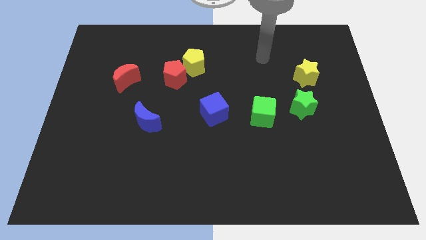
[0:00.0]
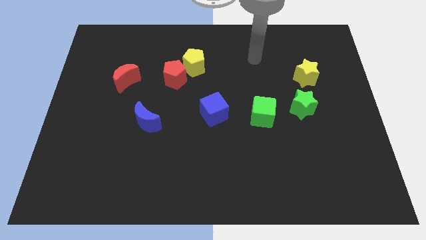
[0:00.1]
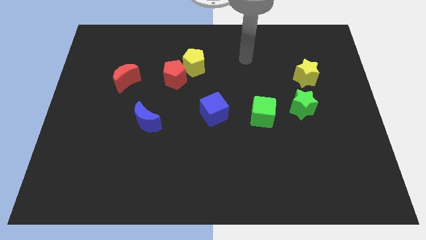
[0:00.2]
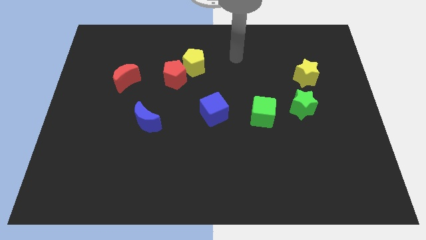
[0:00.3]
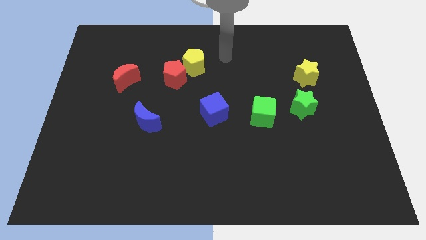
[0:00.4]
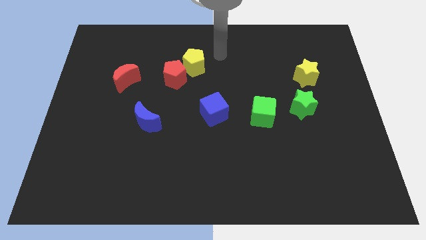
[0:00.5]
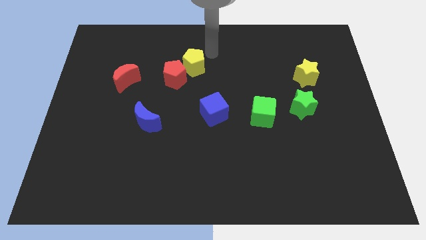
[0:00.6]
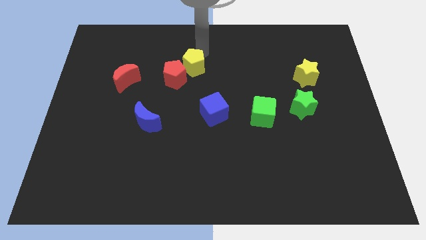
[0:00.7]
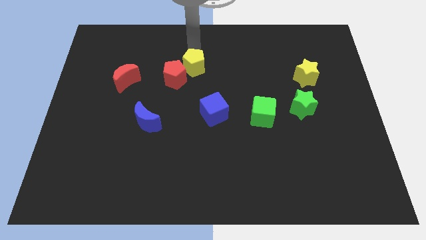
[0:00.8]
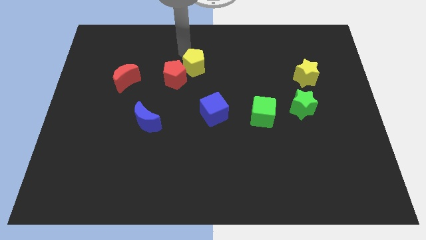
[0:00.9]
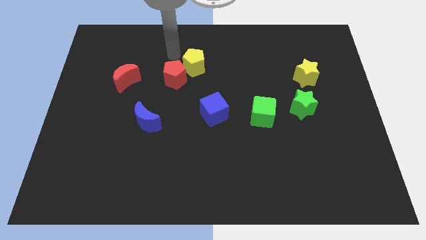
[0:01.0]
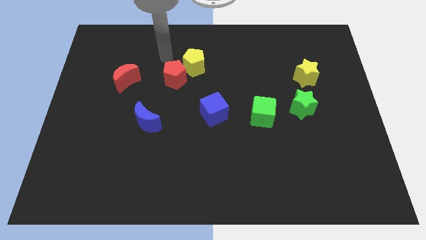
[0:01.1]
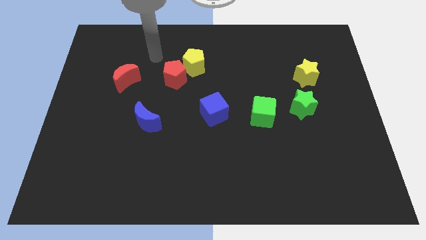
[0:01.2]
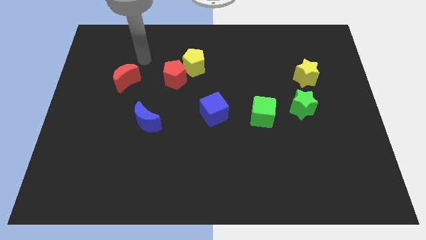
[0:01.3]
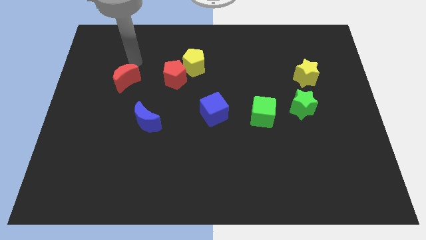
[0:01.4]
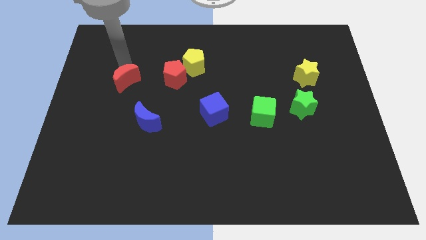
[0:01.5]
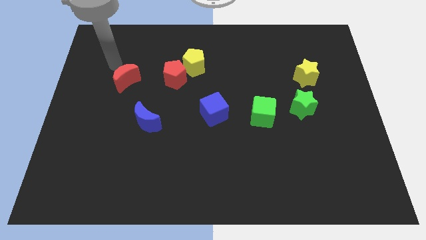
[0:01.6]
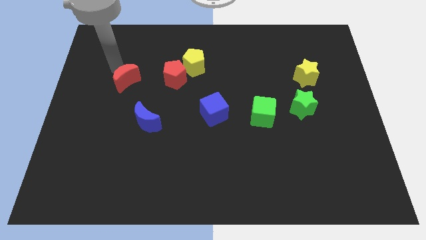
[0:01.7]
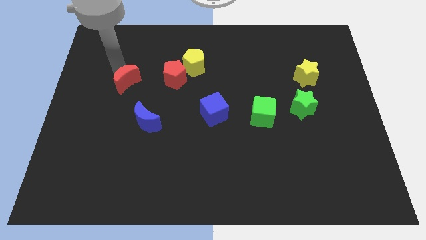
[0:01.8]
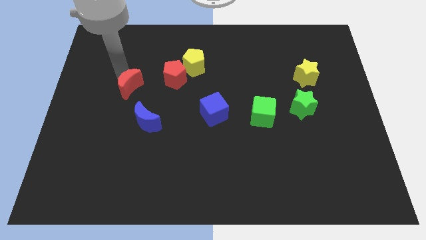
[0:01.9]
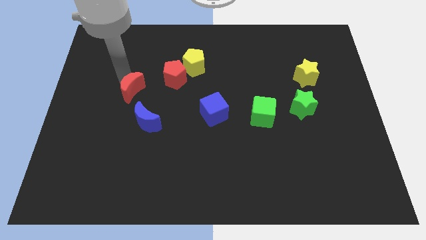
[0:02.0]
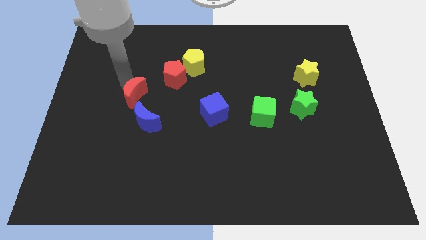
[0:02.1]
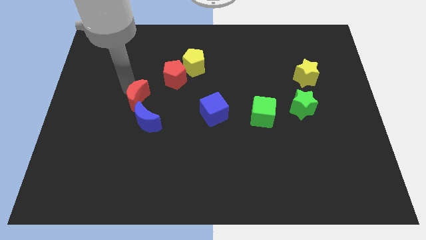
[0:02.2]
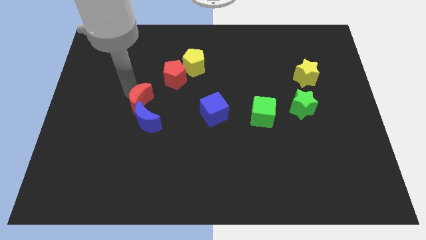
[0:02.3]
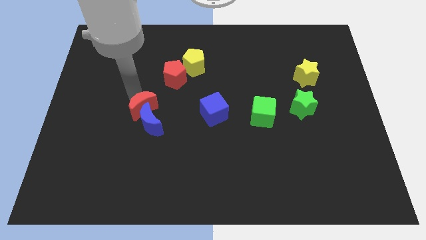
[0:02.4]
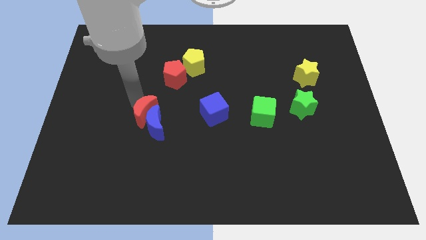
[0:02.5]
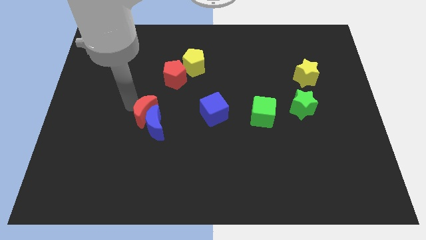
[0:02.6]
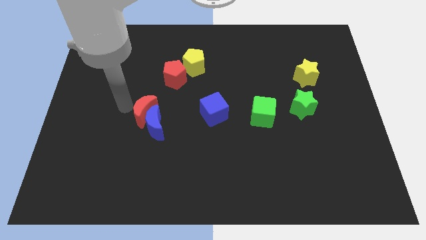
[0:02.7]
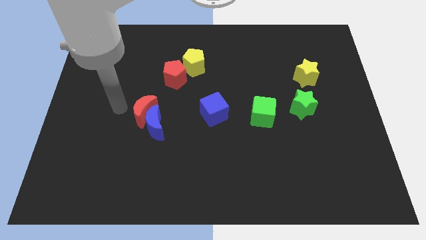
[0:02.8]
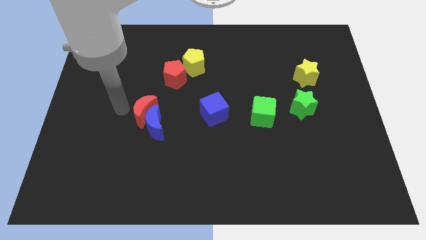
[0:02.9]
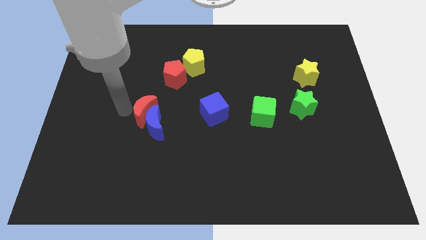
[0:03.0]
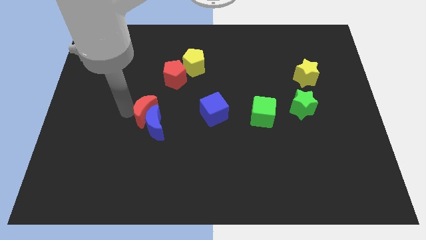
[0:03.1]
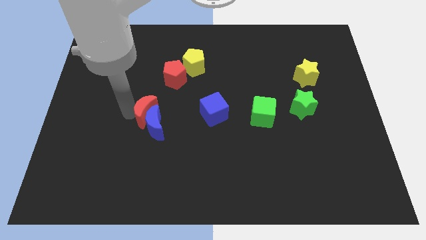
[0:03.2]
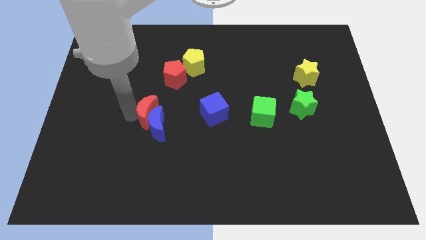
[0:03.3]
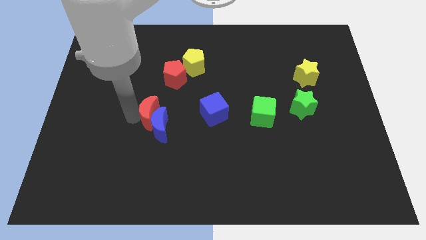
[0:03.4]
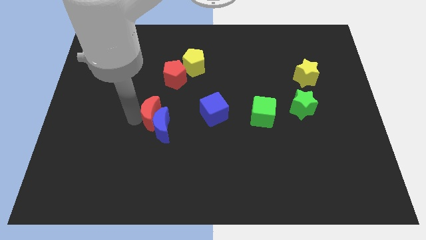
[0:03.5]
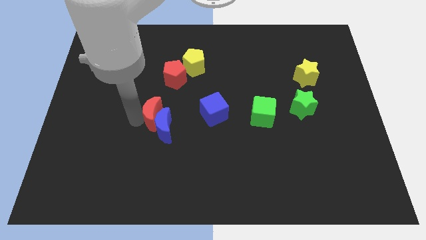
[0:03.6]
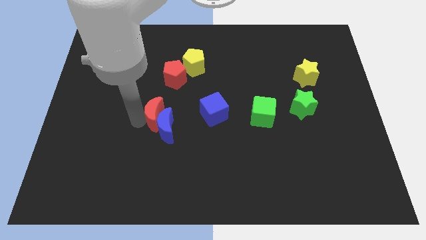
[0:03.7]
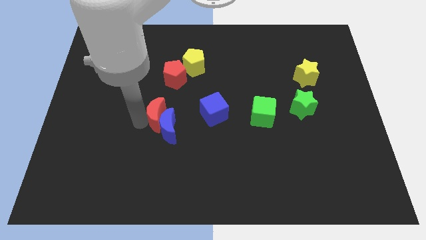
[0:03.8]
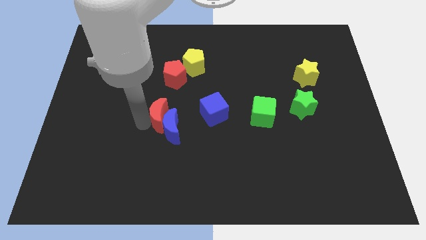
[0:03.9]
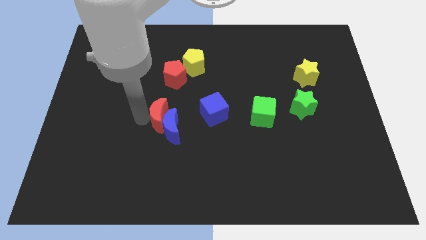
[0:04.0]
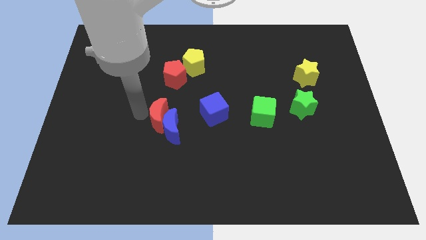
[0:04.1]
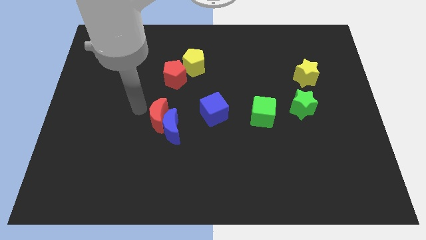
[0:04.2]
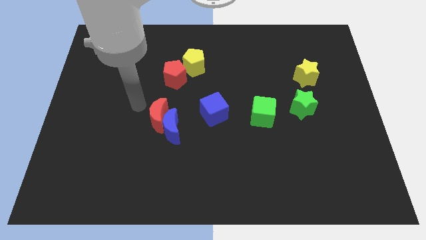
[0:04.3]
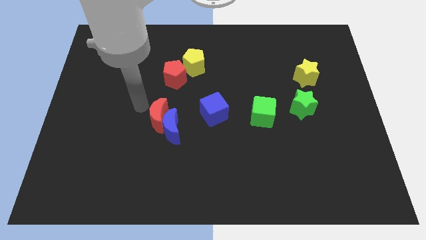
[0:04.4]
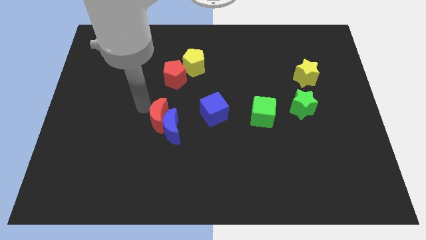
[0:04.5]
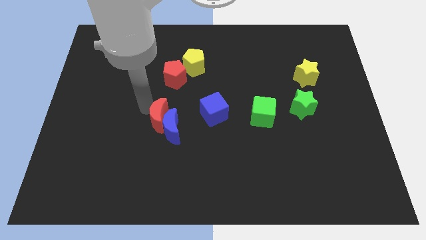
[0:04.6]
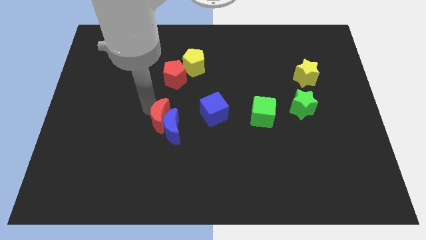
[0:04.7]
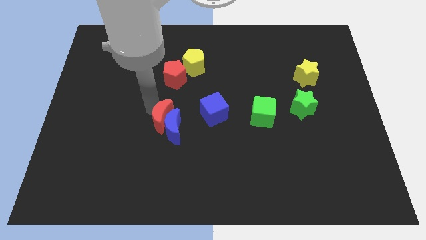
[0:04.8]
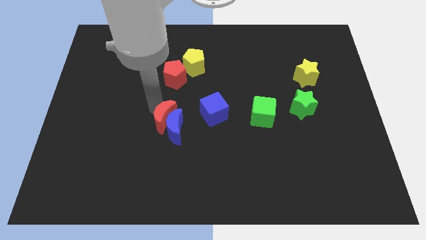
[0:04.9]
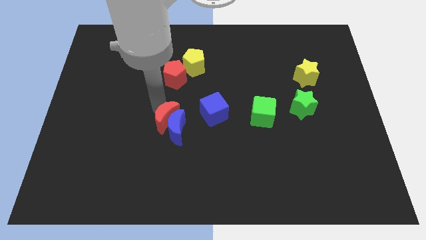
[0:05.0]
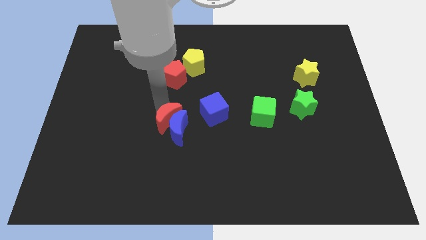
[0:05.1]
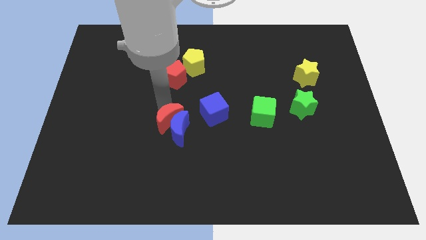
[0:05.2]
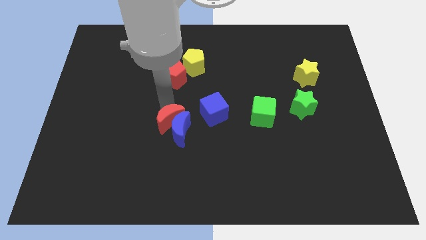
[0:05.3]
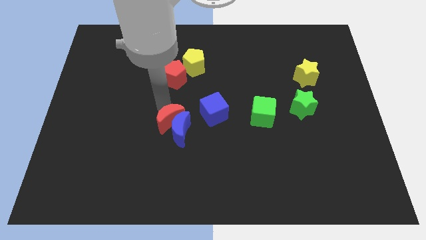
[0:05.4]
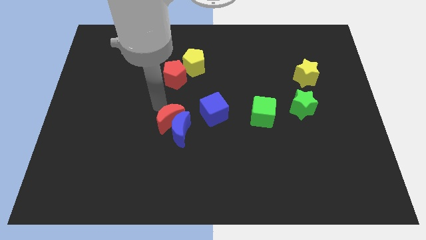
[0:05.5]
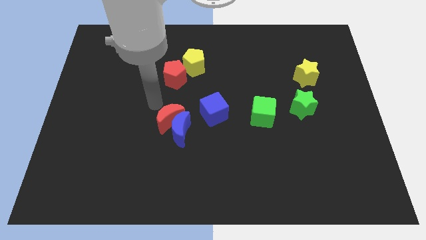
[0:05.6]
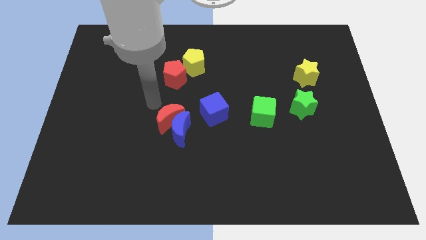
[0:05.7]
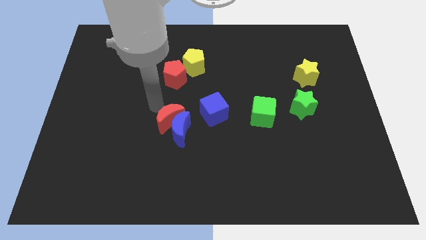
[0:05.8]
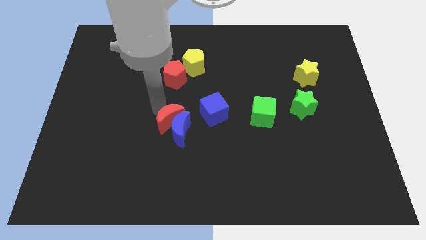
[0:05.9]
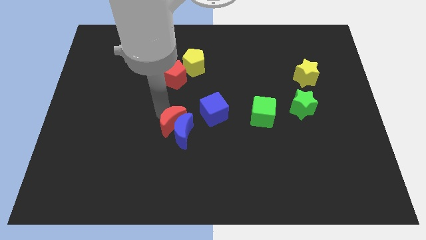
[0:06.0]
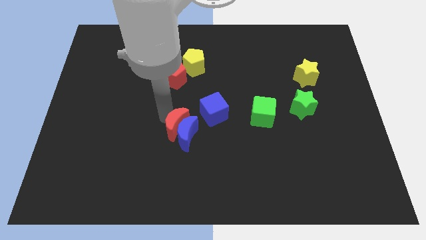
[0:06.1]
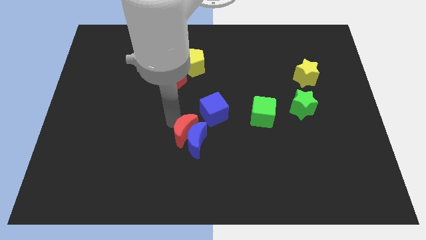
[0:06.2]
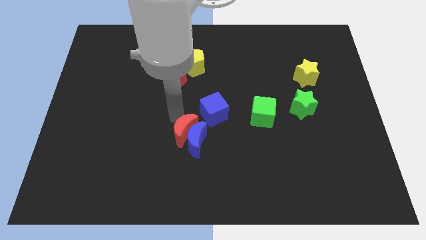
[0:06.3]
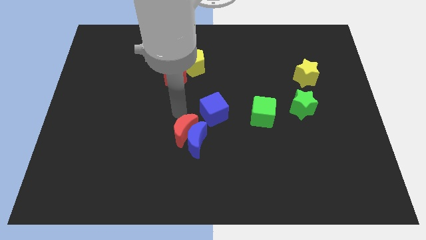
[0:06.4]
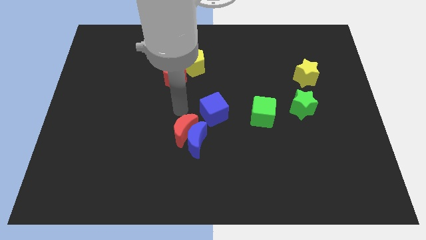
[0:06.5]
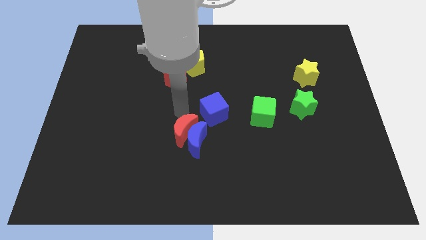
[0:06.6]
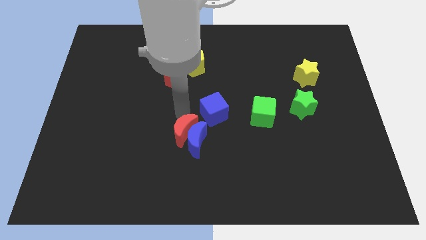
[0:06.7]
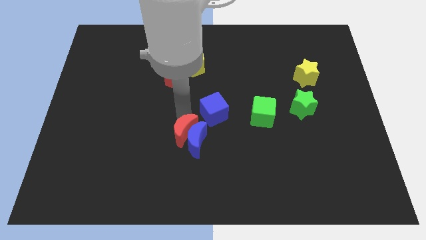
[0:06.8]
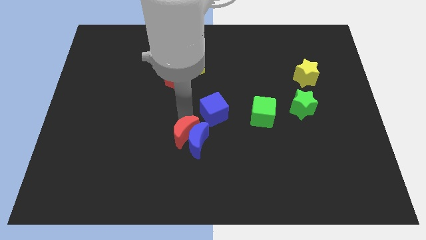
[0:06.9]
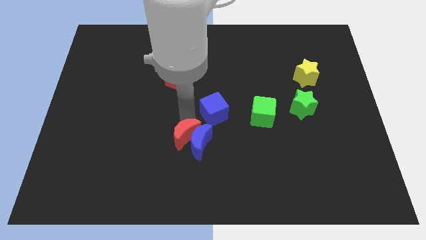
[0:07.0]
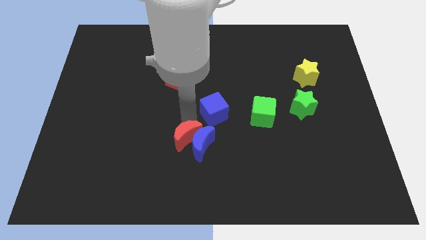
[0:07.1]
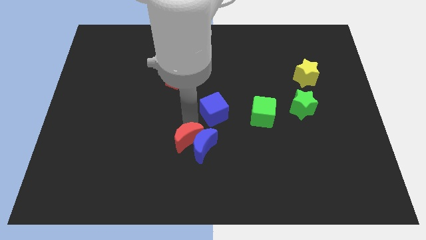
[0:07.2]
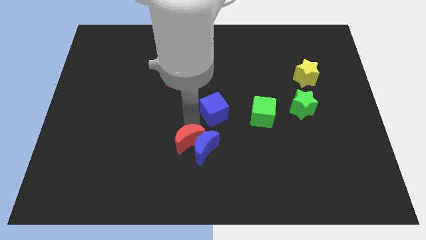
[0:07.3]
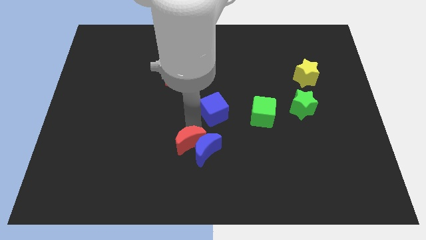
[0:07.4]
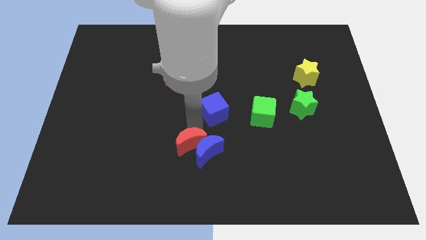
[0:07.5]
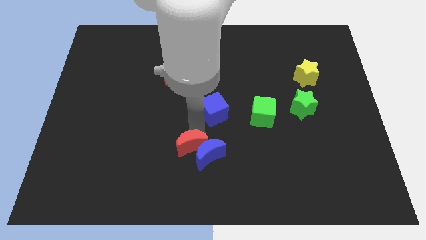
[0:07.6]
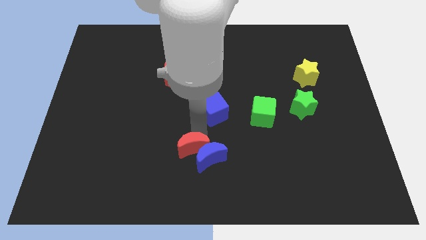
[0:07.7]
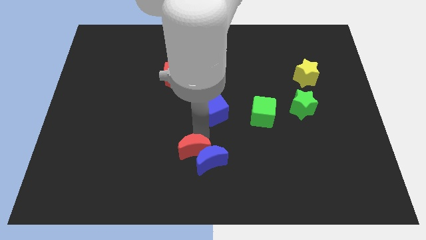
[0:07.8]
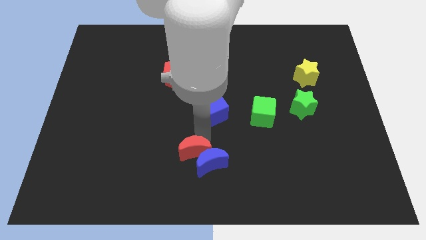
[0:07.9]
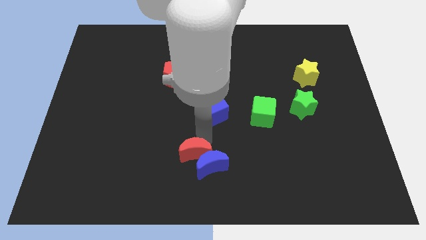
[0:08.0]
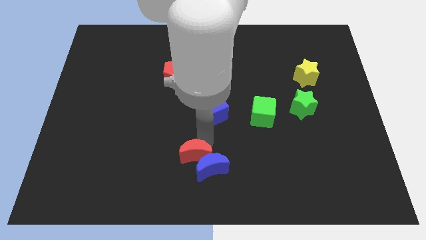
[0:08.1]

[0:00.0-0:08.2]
move the red moon to the bottom

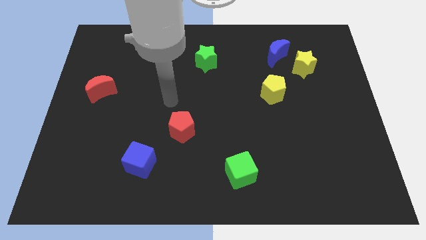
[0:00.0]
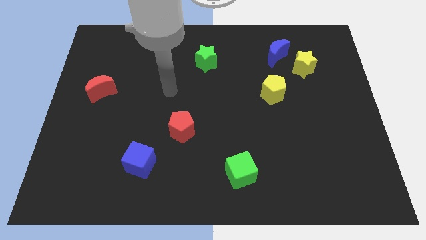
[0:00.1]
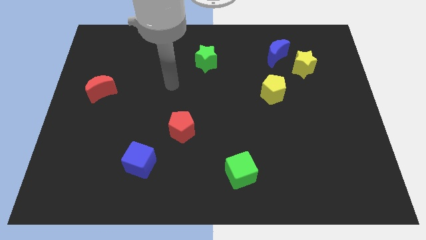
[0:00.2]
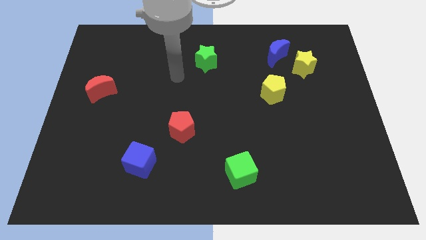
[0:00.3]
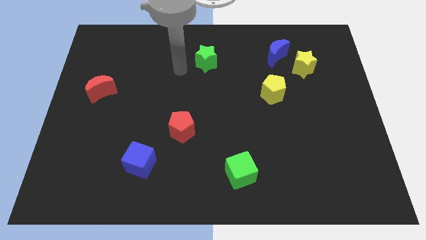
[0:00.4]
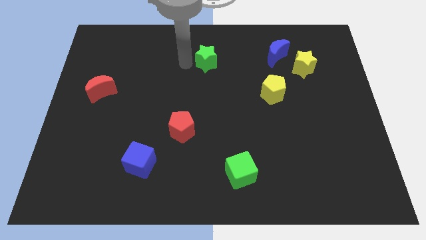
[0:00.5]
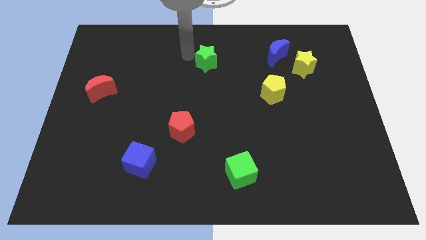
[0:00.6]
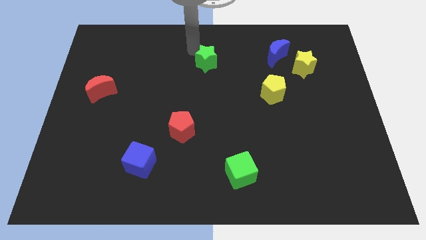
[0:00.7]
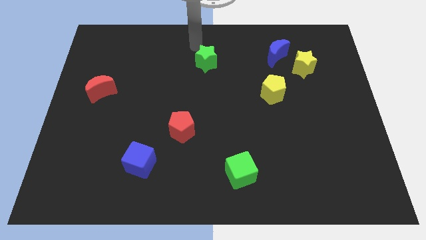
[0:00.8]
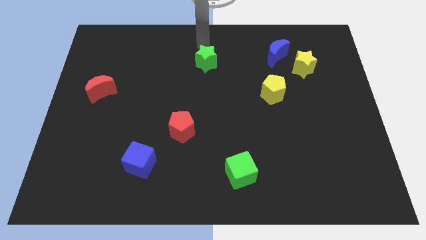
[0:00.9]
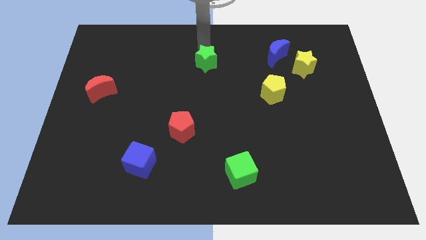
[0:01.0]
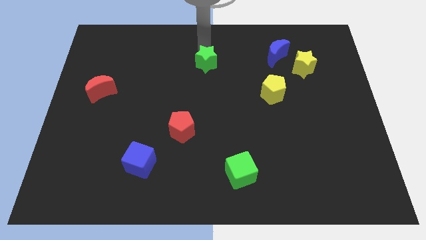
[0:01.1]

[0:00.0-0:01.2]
push the green star to the middle of the board
